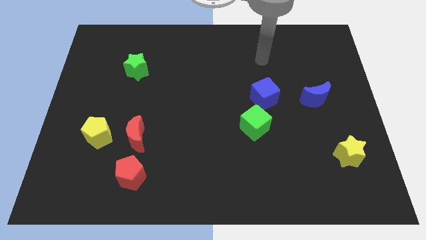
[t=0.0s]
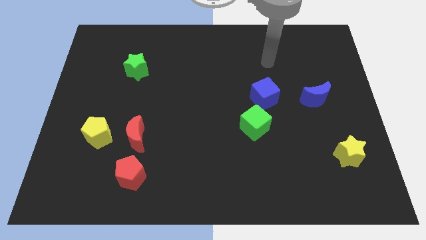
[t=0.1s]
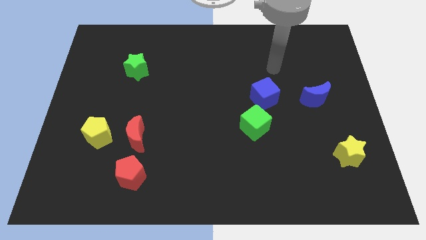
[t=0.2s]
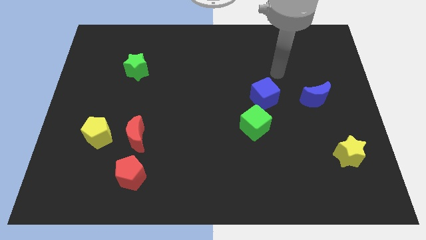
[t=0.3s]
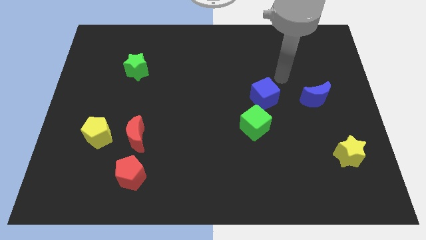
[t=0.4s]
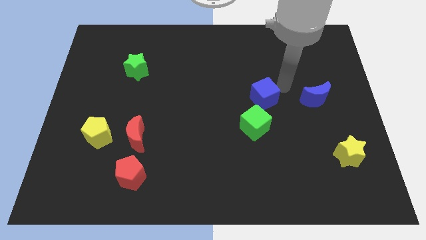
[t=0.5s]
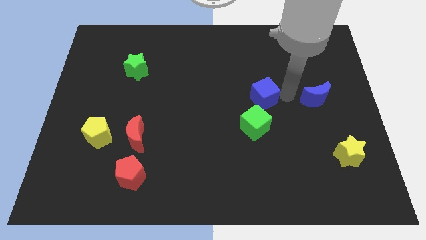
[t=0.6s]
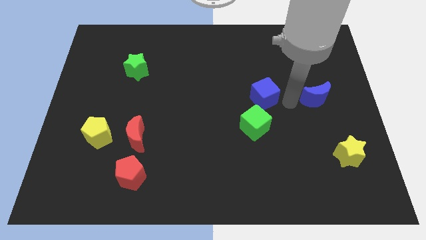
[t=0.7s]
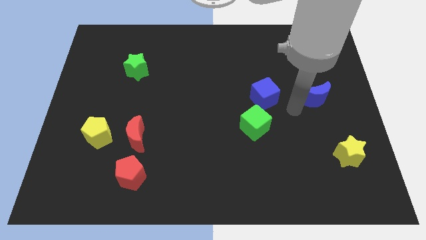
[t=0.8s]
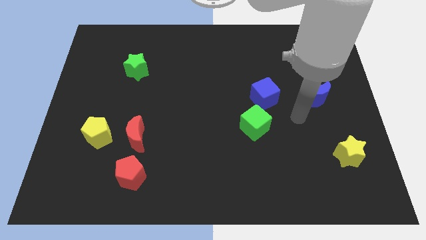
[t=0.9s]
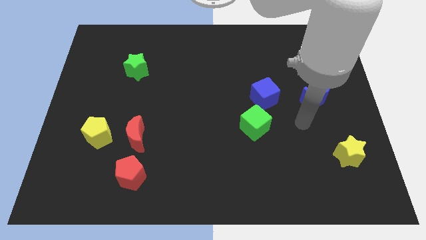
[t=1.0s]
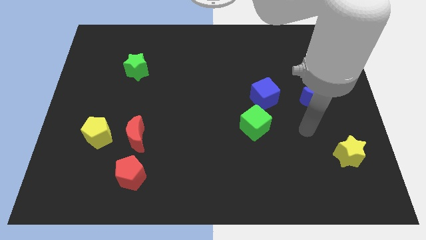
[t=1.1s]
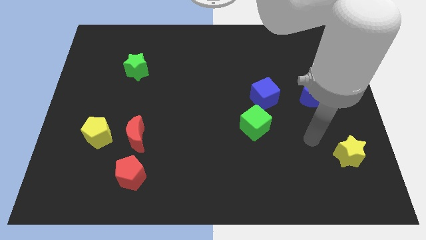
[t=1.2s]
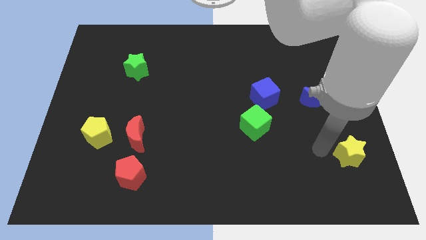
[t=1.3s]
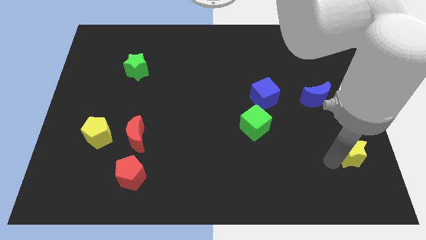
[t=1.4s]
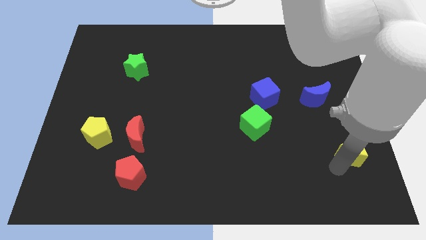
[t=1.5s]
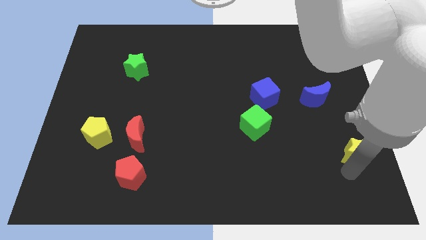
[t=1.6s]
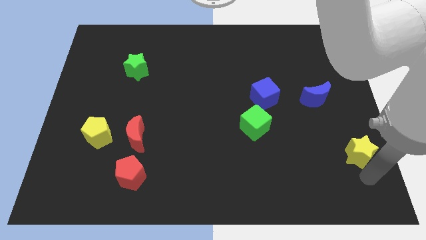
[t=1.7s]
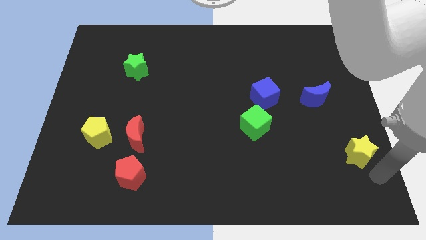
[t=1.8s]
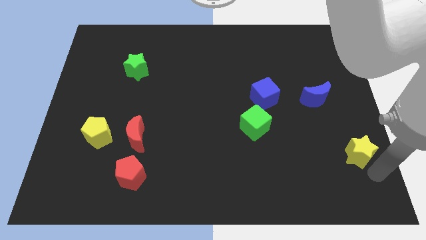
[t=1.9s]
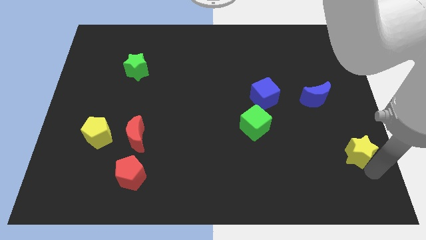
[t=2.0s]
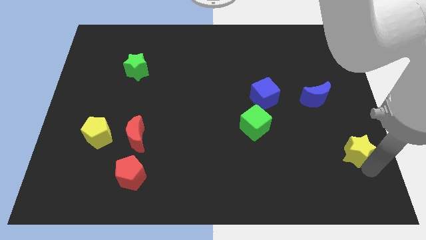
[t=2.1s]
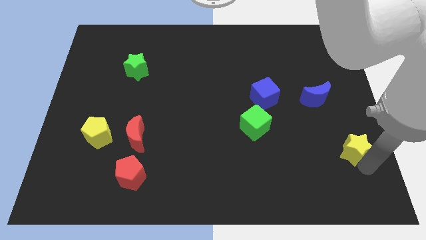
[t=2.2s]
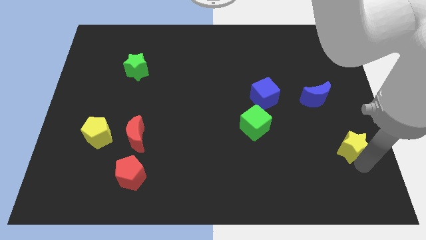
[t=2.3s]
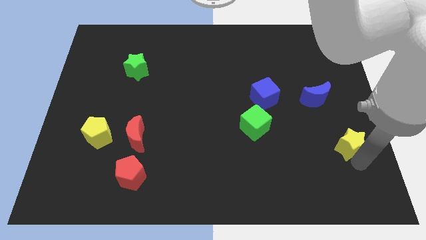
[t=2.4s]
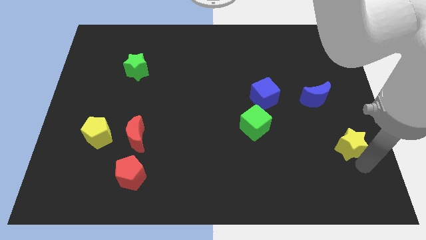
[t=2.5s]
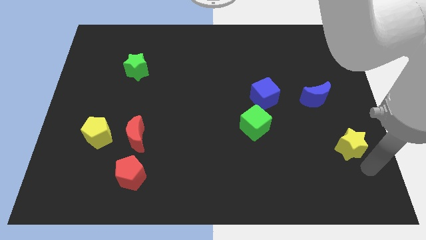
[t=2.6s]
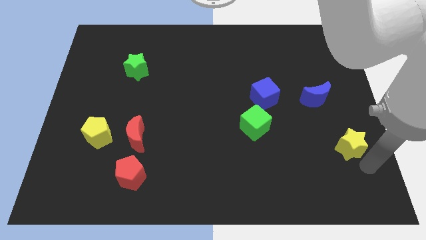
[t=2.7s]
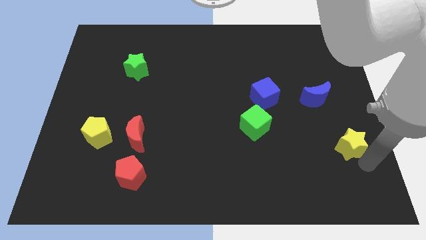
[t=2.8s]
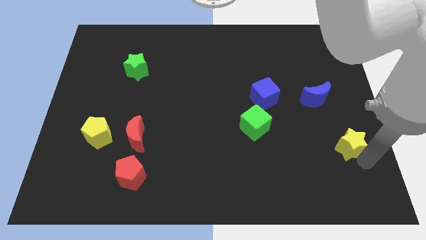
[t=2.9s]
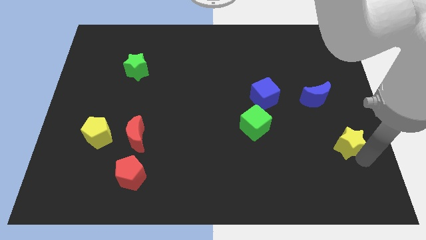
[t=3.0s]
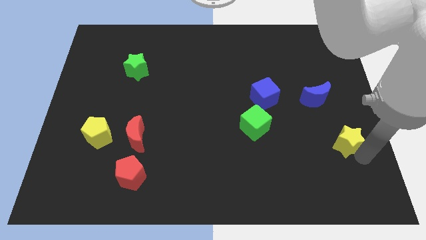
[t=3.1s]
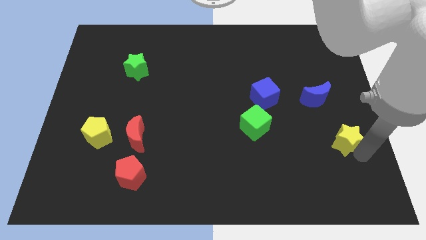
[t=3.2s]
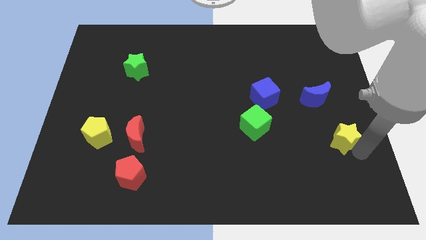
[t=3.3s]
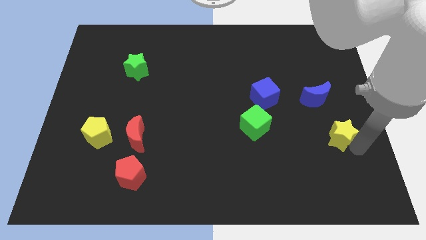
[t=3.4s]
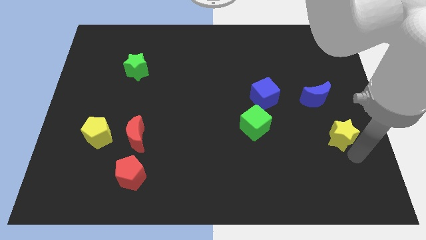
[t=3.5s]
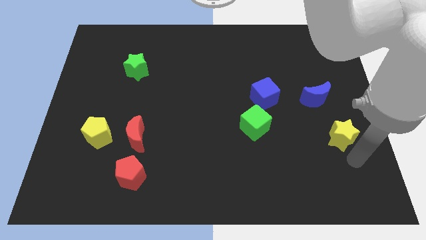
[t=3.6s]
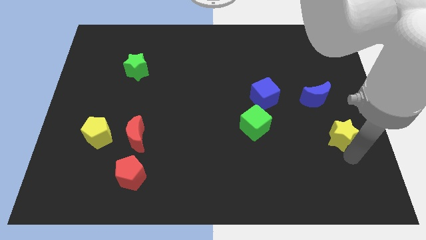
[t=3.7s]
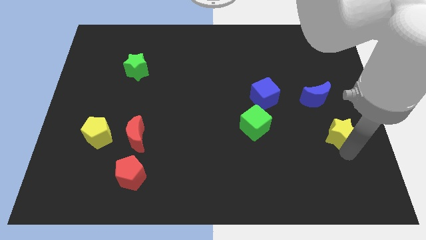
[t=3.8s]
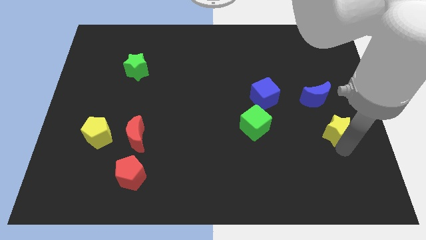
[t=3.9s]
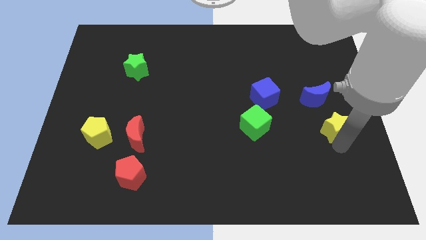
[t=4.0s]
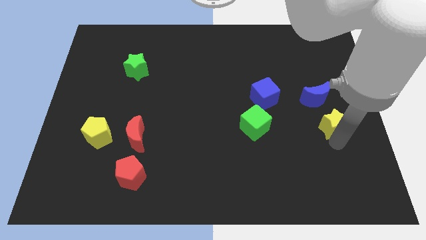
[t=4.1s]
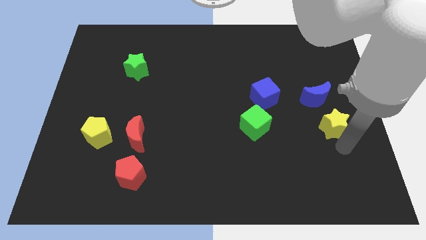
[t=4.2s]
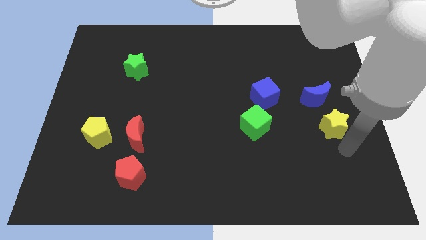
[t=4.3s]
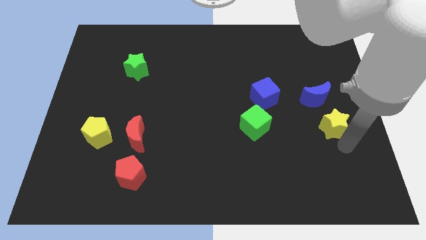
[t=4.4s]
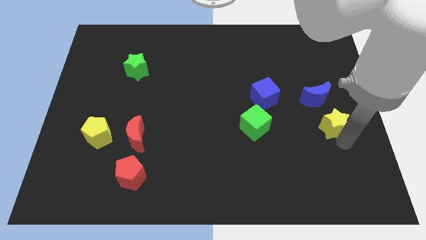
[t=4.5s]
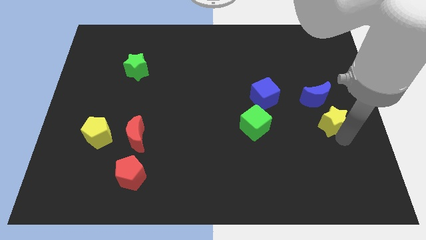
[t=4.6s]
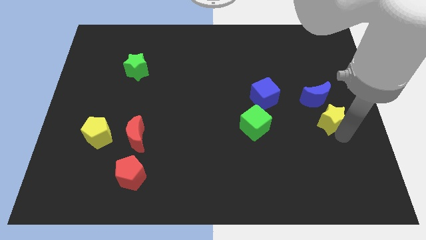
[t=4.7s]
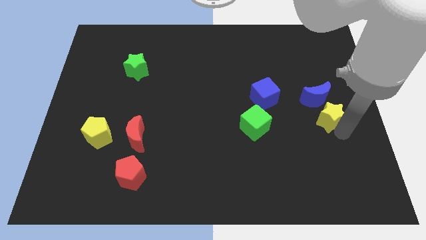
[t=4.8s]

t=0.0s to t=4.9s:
push the yellow star to the blue moon

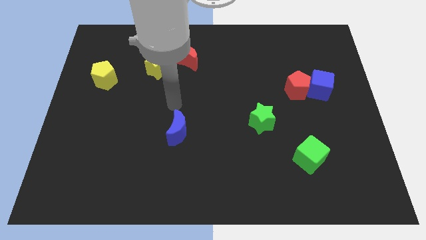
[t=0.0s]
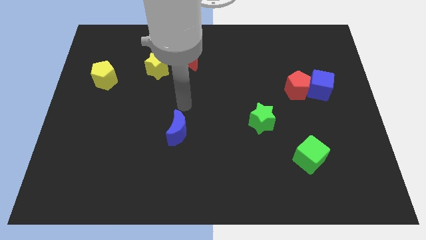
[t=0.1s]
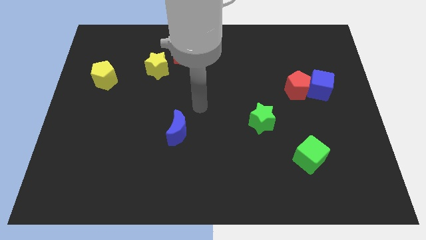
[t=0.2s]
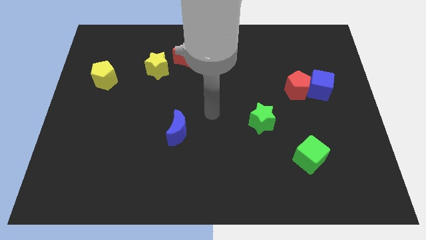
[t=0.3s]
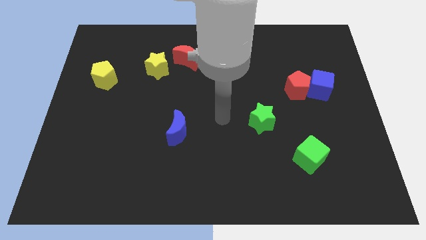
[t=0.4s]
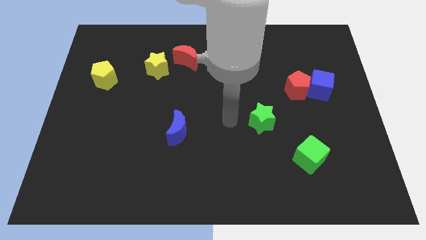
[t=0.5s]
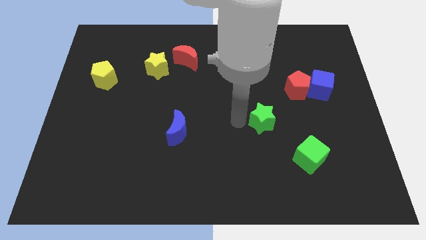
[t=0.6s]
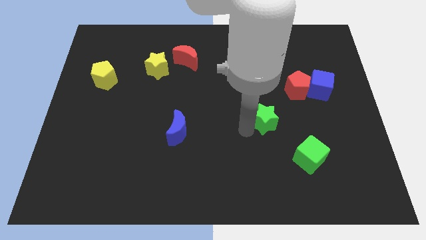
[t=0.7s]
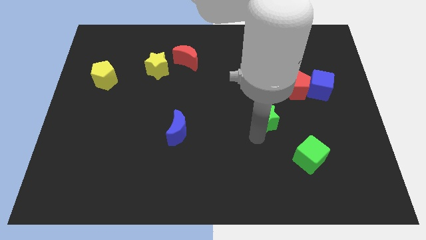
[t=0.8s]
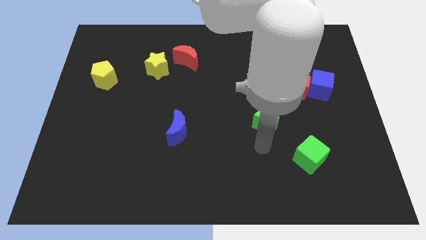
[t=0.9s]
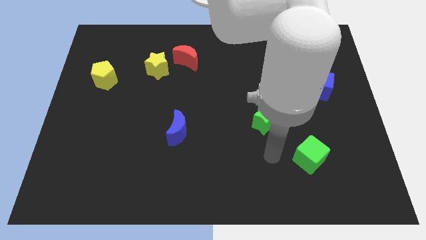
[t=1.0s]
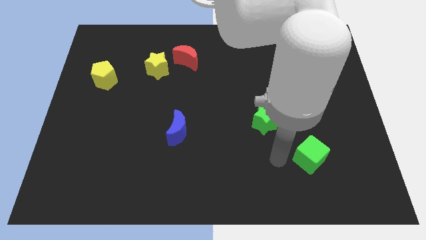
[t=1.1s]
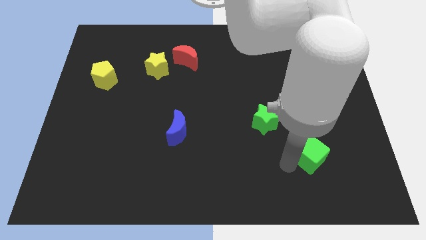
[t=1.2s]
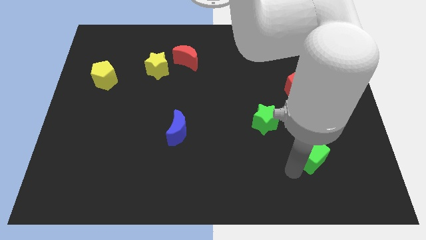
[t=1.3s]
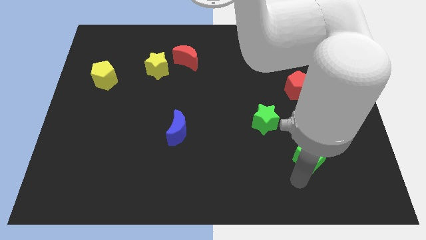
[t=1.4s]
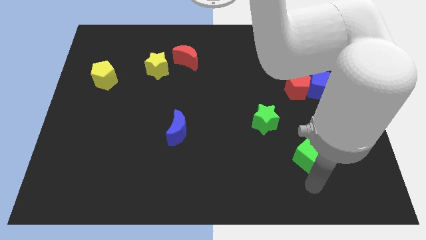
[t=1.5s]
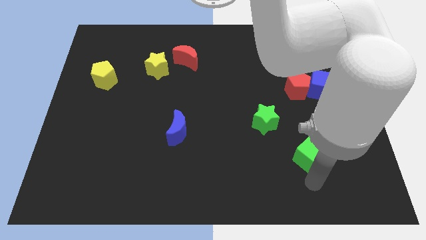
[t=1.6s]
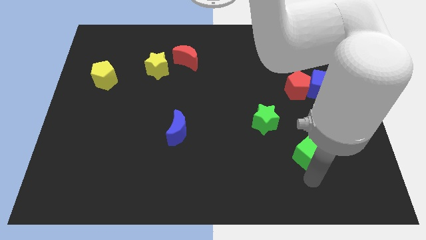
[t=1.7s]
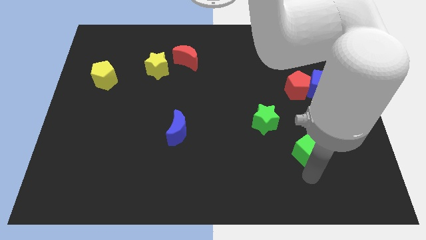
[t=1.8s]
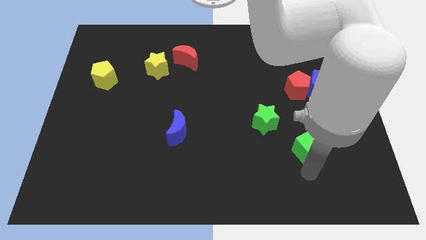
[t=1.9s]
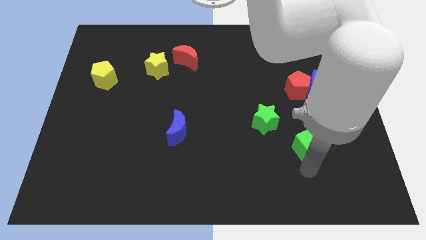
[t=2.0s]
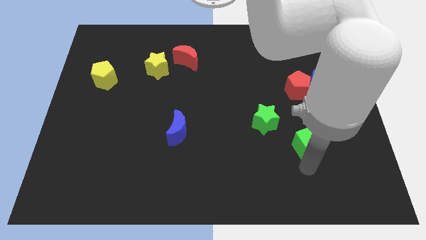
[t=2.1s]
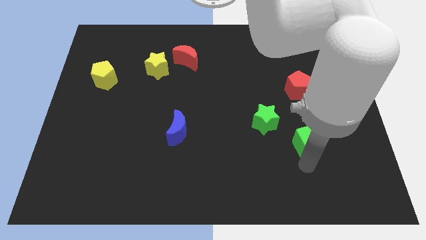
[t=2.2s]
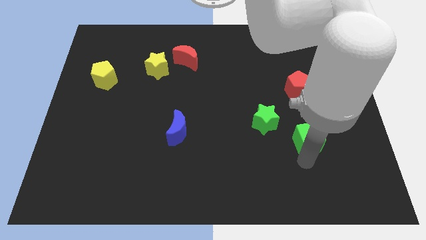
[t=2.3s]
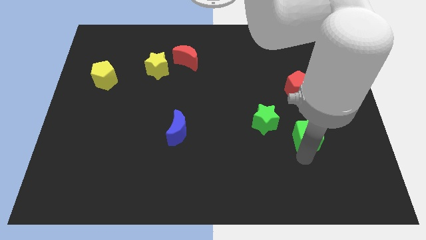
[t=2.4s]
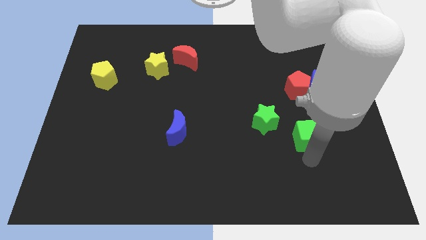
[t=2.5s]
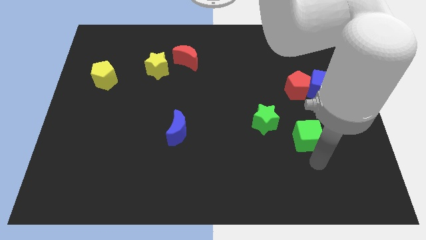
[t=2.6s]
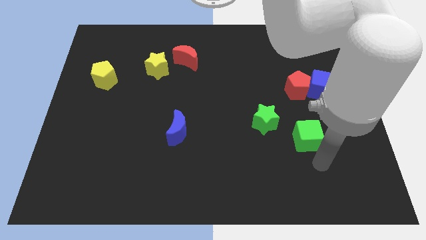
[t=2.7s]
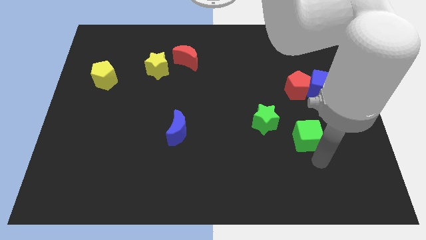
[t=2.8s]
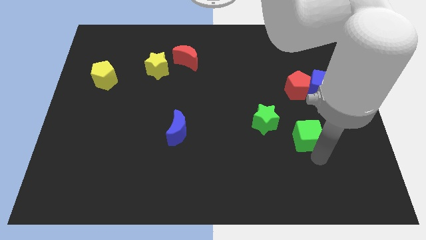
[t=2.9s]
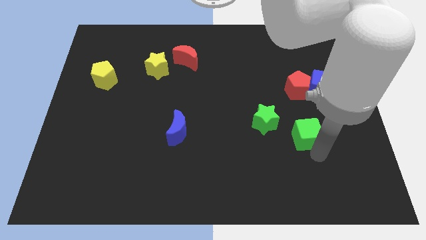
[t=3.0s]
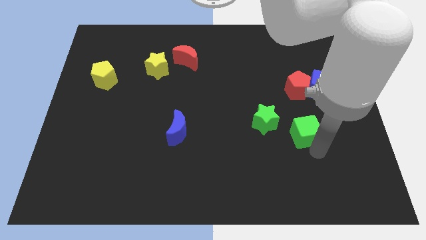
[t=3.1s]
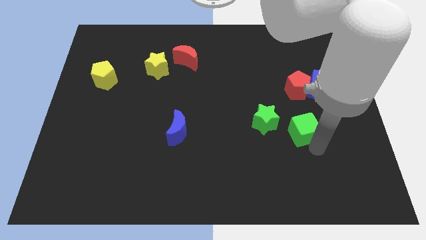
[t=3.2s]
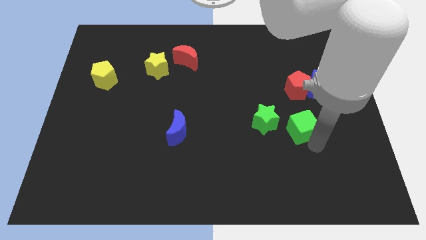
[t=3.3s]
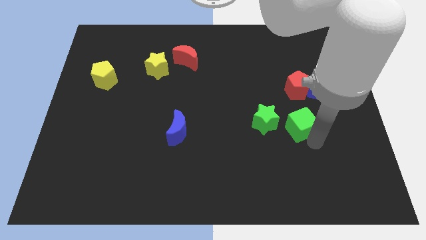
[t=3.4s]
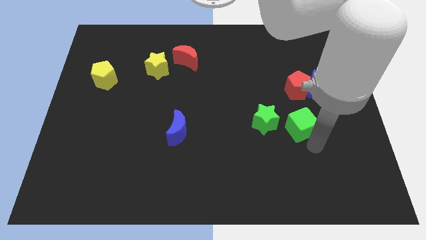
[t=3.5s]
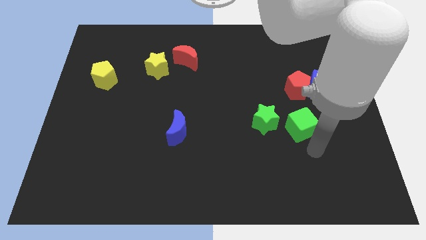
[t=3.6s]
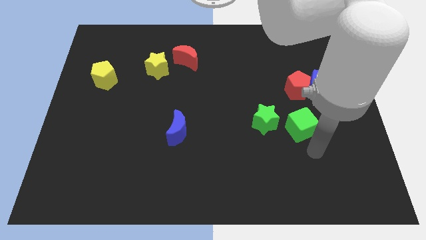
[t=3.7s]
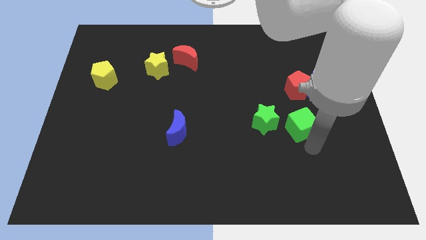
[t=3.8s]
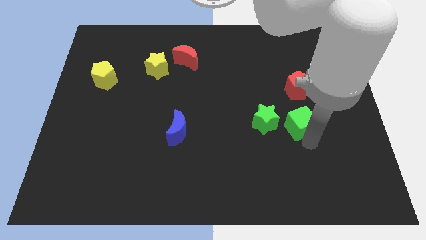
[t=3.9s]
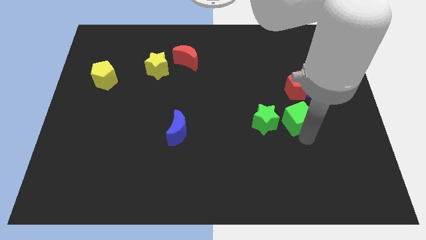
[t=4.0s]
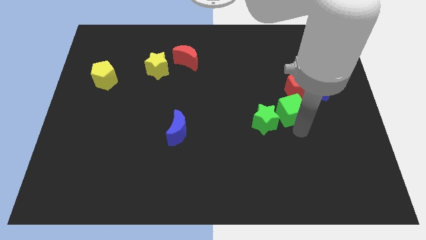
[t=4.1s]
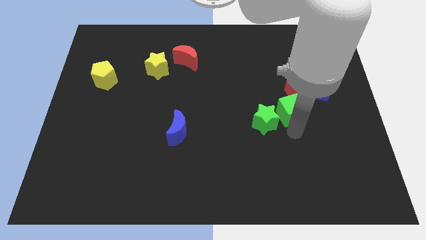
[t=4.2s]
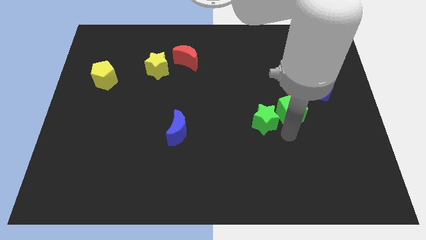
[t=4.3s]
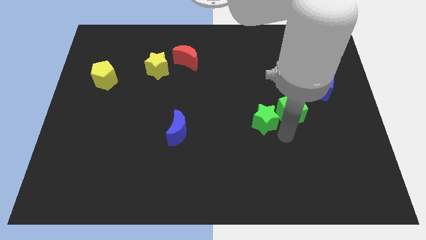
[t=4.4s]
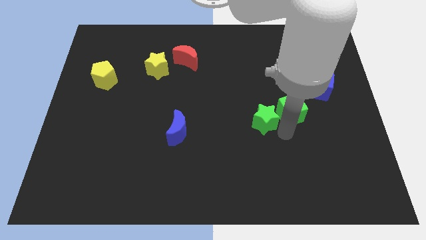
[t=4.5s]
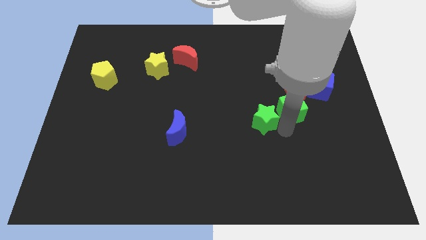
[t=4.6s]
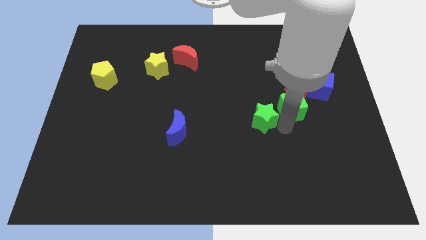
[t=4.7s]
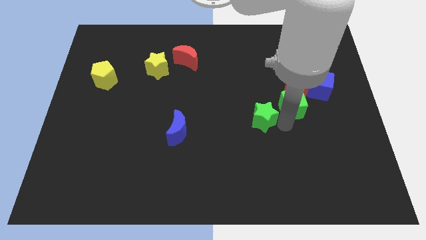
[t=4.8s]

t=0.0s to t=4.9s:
slide the green cube next to the red pentagon
